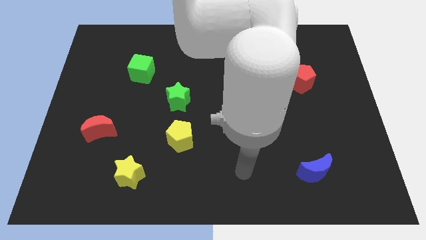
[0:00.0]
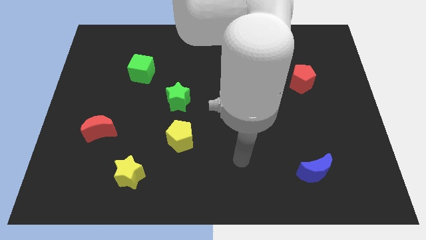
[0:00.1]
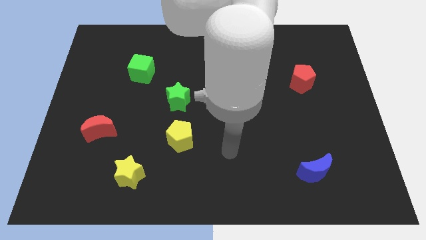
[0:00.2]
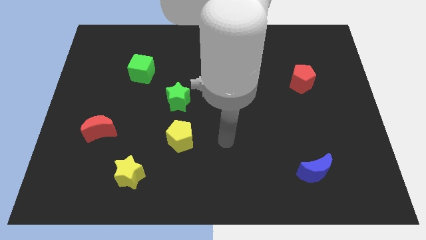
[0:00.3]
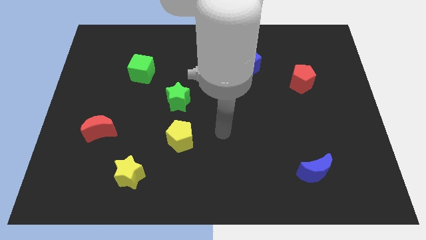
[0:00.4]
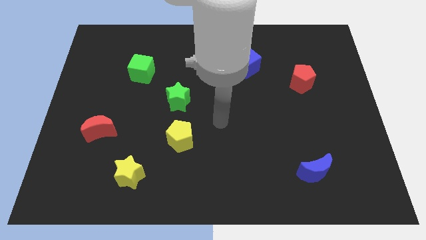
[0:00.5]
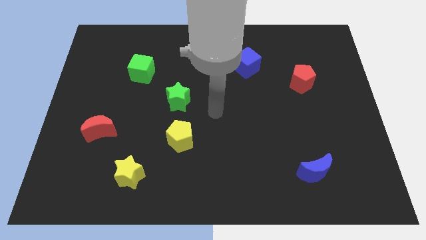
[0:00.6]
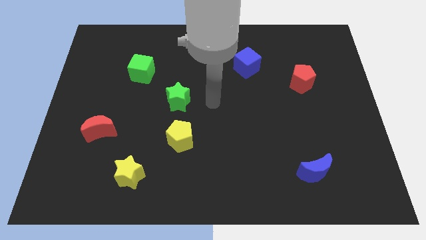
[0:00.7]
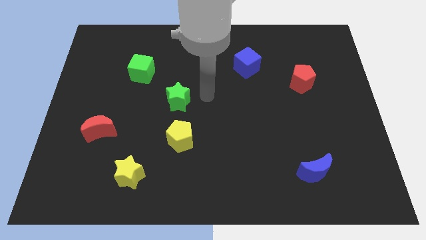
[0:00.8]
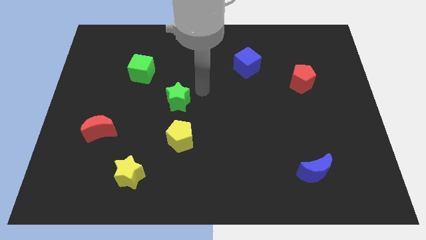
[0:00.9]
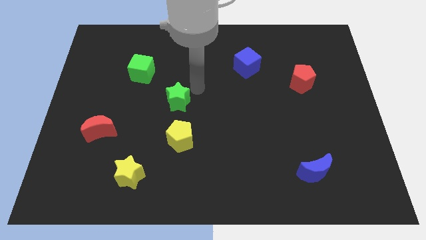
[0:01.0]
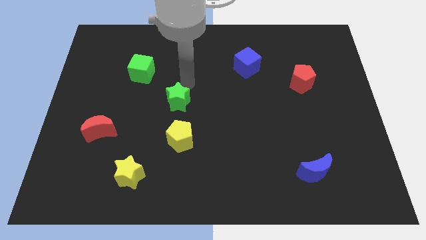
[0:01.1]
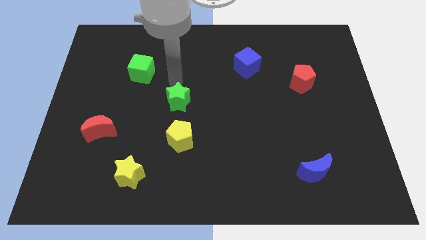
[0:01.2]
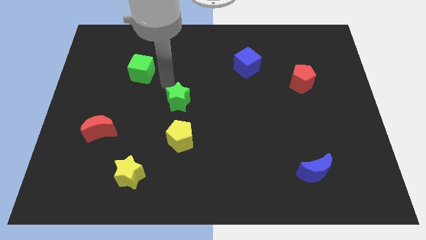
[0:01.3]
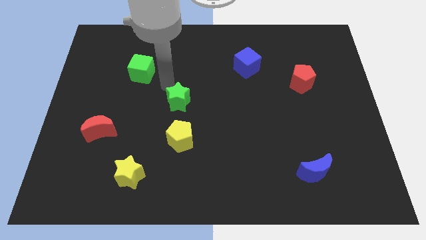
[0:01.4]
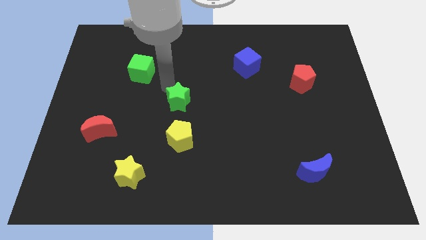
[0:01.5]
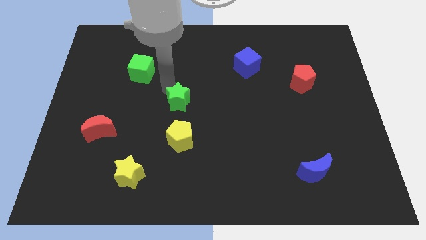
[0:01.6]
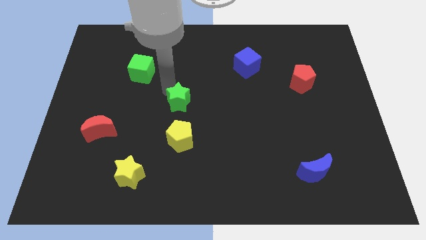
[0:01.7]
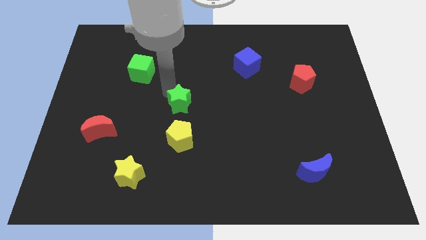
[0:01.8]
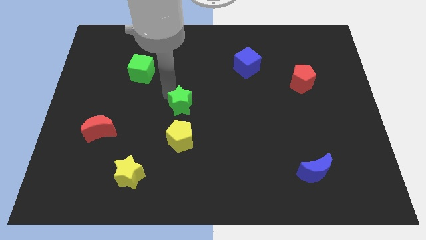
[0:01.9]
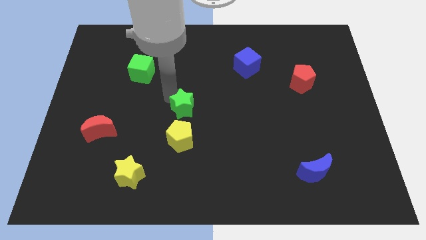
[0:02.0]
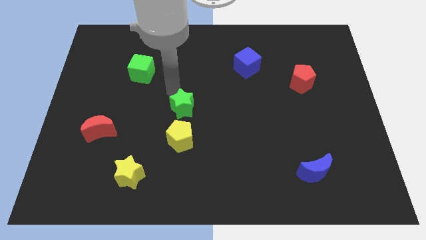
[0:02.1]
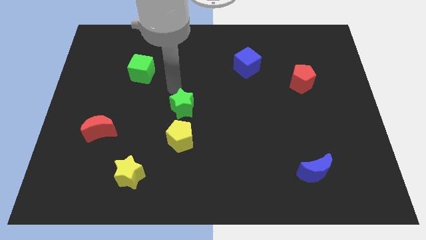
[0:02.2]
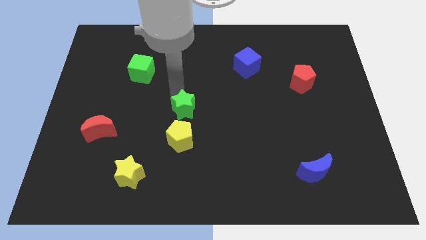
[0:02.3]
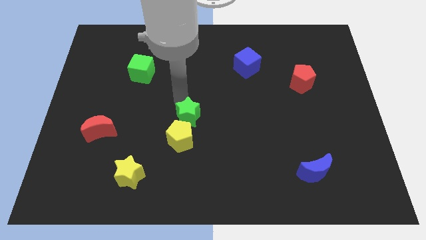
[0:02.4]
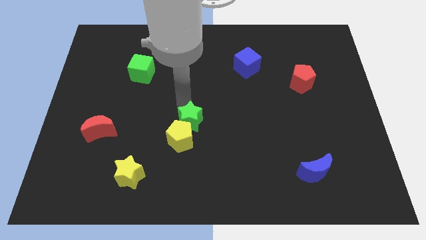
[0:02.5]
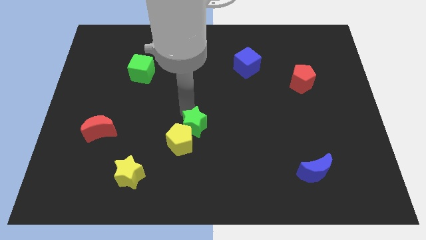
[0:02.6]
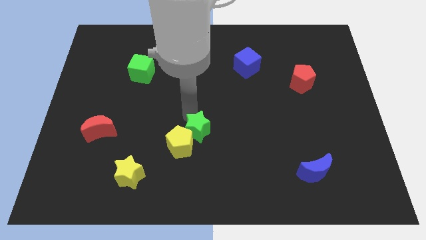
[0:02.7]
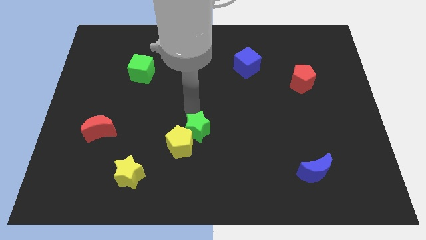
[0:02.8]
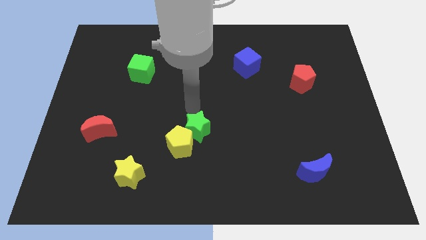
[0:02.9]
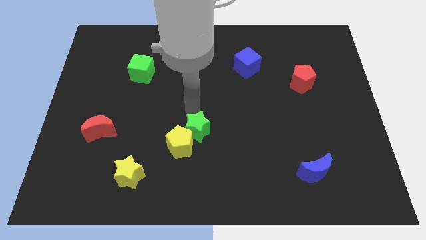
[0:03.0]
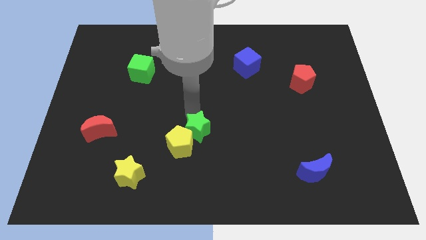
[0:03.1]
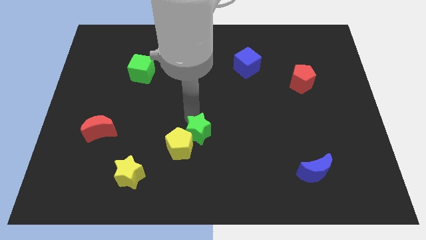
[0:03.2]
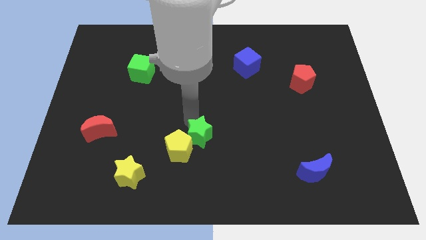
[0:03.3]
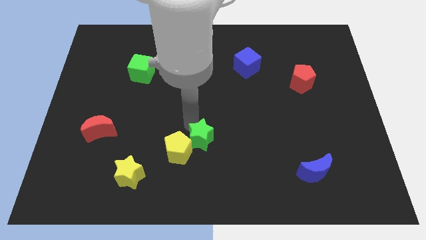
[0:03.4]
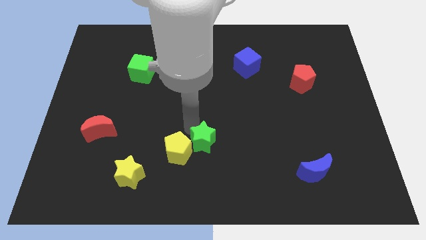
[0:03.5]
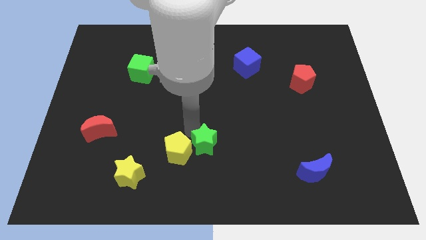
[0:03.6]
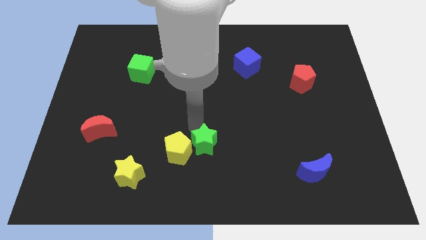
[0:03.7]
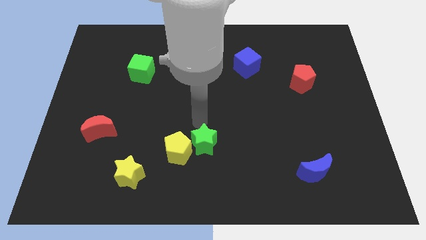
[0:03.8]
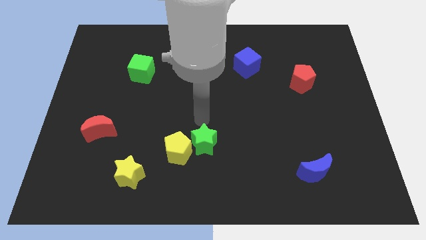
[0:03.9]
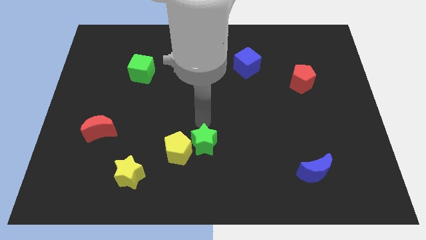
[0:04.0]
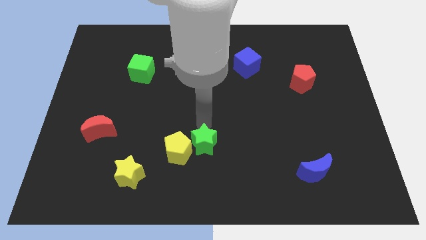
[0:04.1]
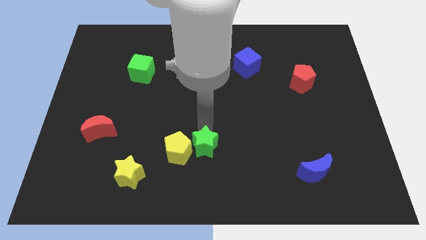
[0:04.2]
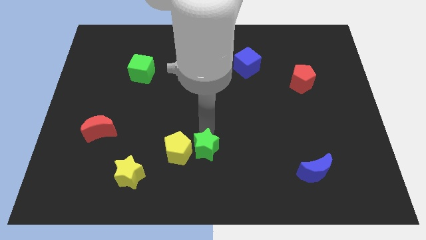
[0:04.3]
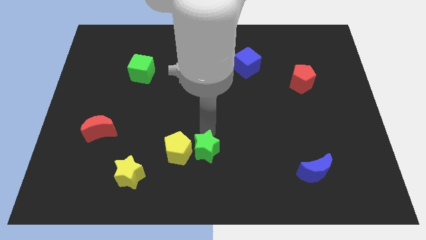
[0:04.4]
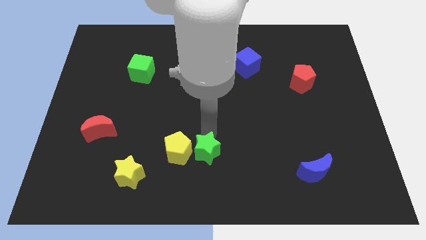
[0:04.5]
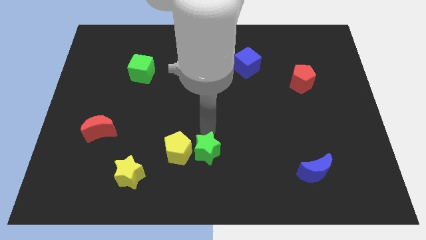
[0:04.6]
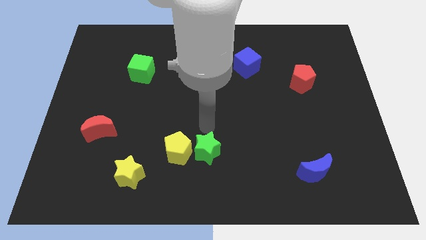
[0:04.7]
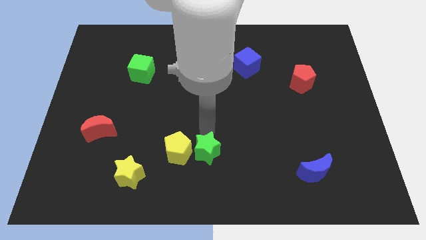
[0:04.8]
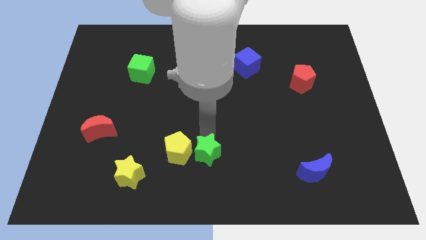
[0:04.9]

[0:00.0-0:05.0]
put the green star to the bottom

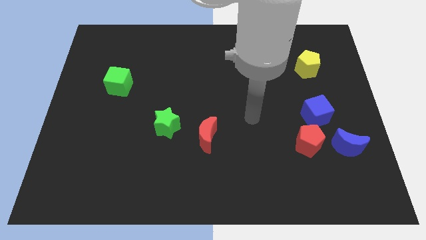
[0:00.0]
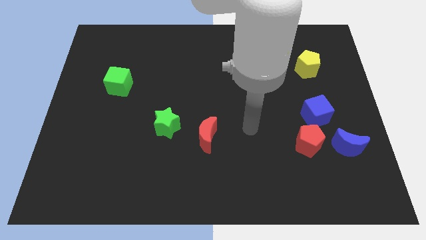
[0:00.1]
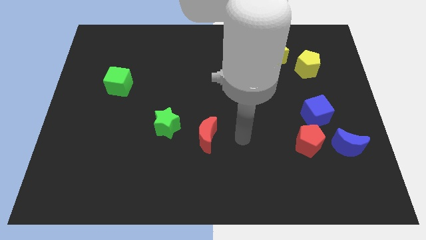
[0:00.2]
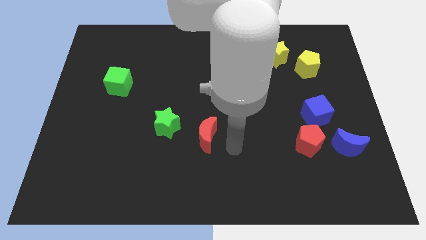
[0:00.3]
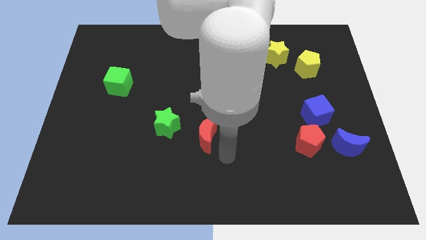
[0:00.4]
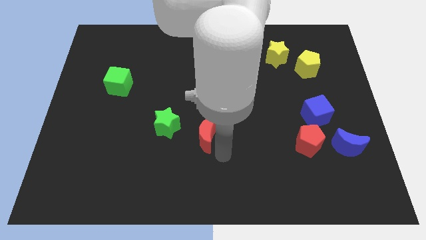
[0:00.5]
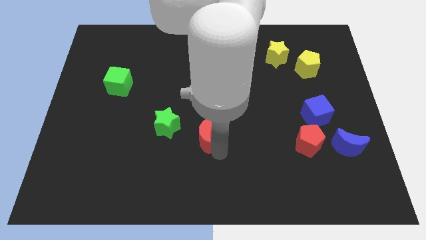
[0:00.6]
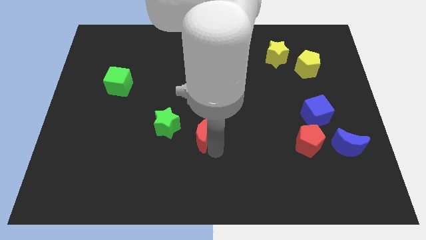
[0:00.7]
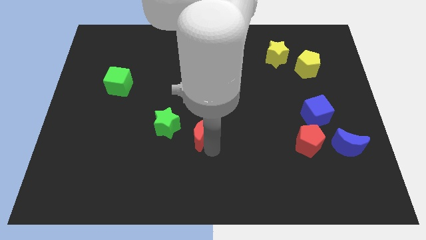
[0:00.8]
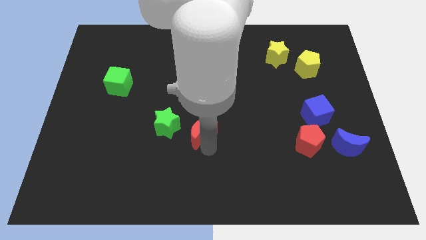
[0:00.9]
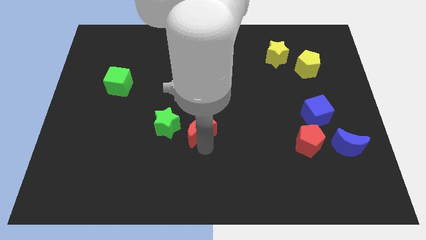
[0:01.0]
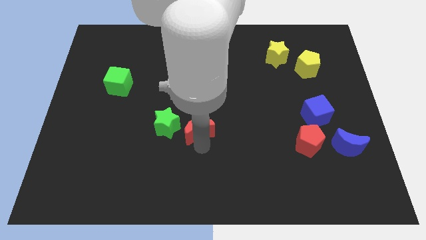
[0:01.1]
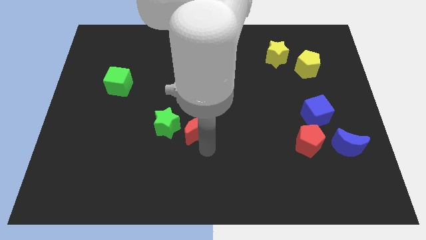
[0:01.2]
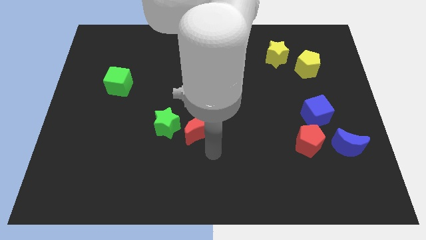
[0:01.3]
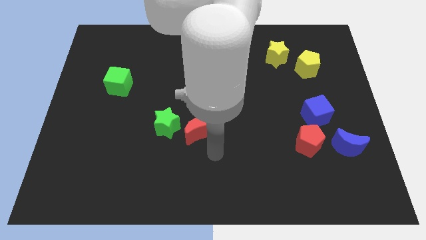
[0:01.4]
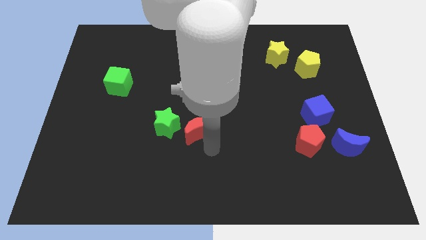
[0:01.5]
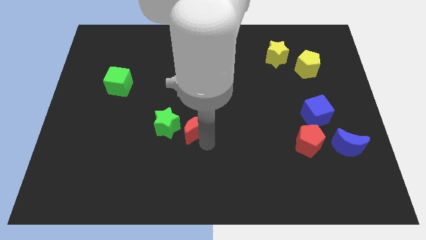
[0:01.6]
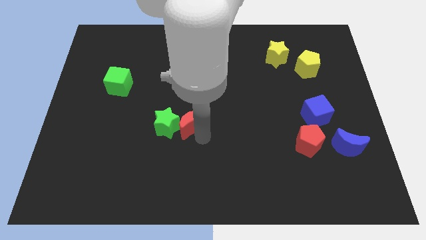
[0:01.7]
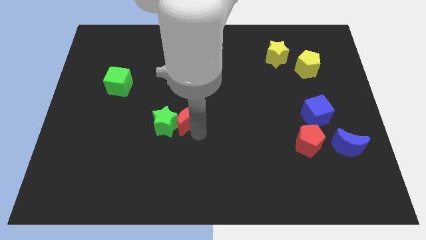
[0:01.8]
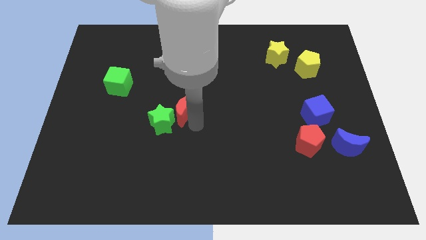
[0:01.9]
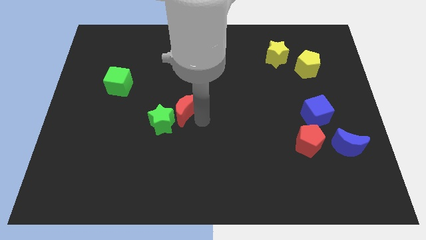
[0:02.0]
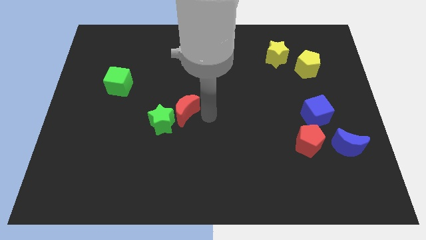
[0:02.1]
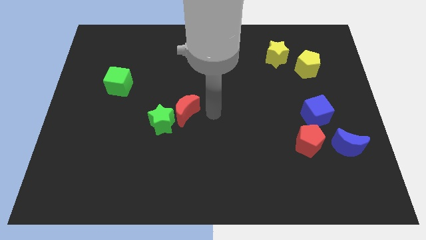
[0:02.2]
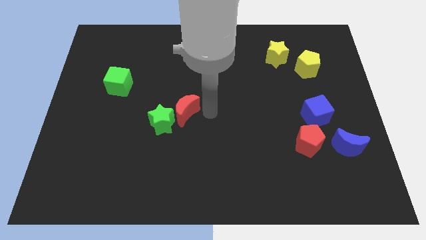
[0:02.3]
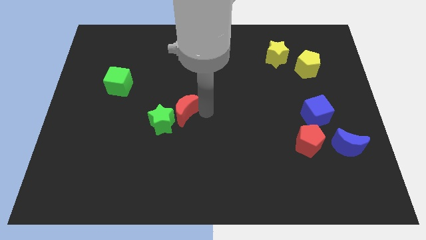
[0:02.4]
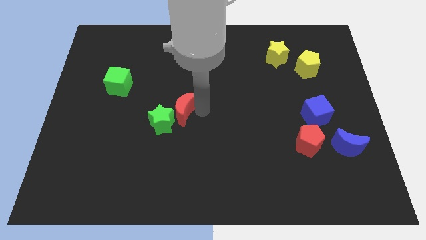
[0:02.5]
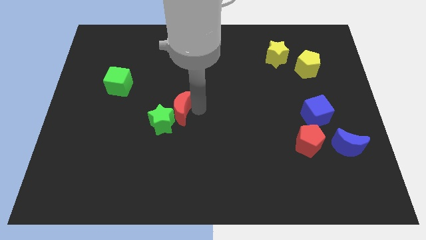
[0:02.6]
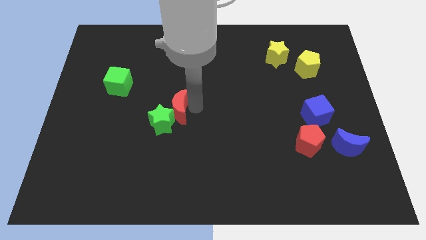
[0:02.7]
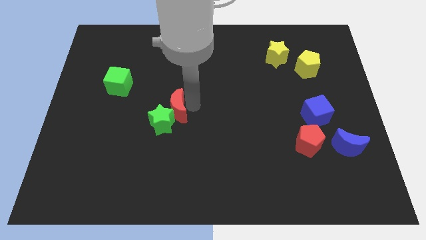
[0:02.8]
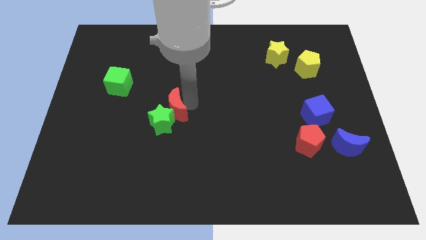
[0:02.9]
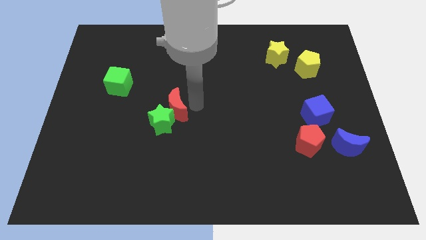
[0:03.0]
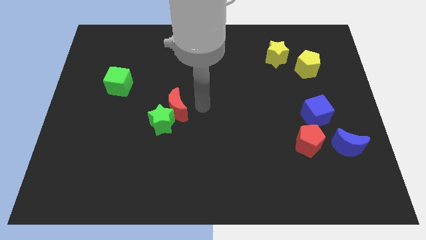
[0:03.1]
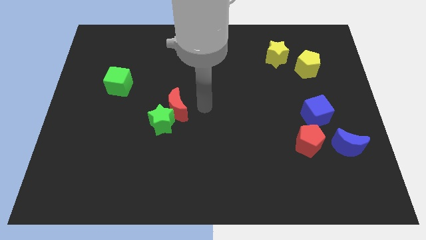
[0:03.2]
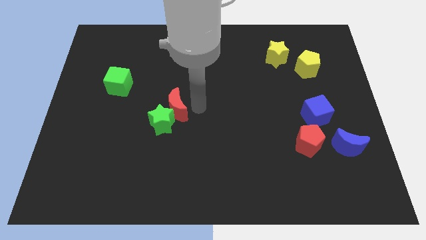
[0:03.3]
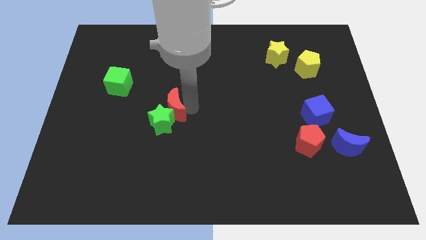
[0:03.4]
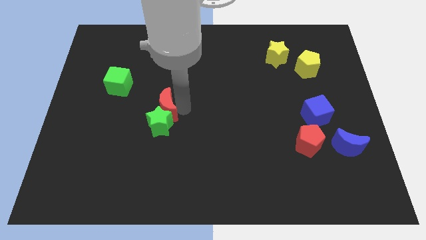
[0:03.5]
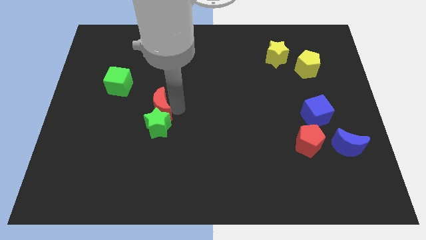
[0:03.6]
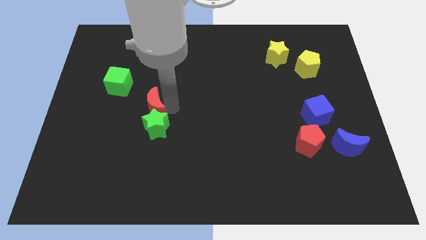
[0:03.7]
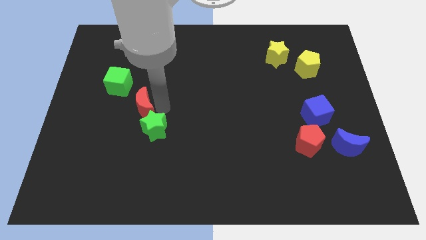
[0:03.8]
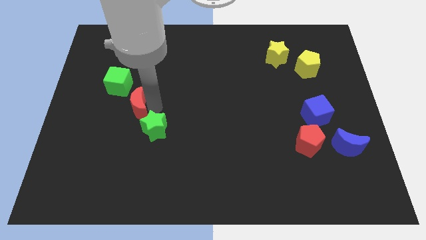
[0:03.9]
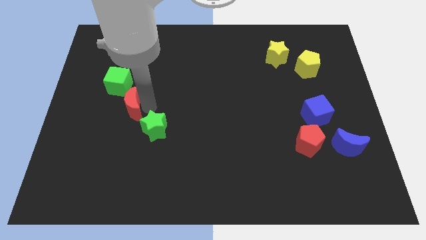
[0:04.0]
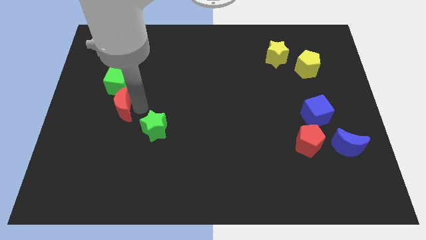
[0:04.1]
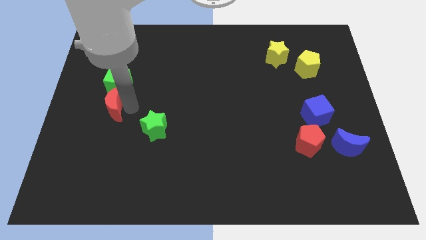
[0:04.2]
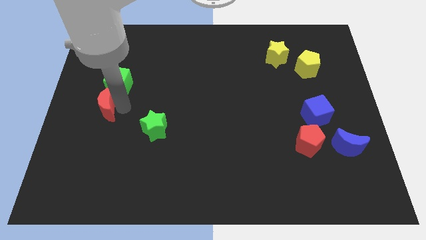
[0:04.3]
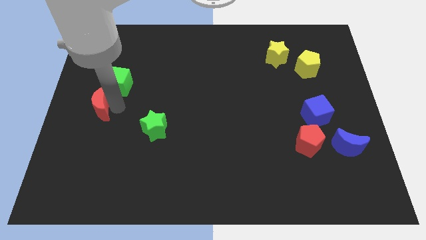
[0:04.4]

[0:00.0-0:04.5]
move the red moon to the left side of the board
